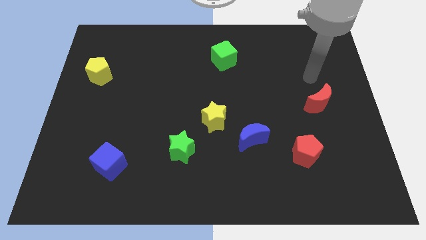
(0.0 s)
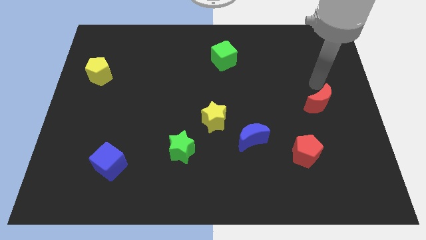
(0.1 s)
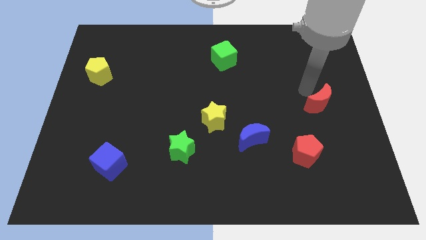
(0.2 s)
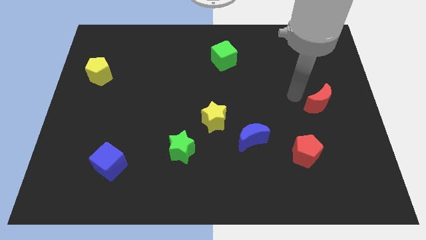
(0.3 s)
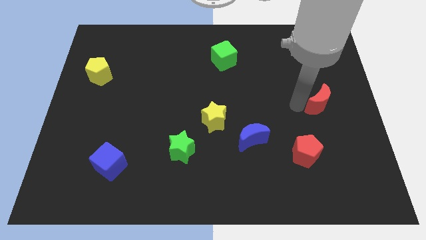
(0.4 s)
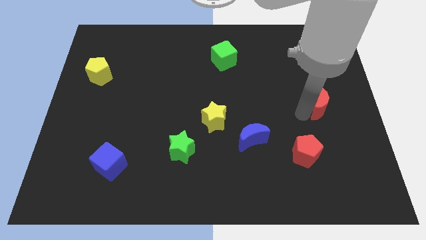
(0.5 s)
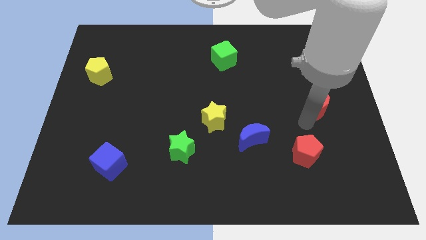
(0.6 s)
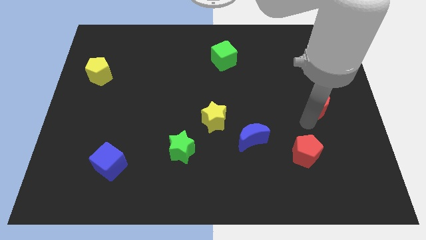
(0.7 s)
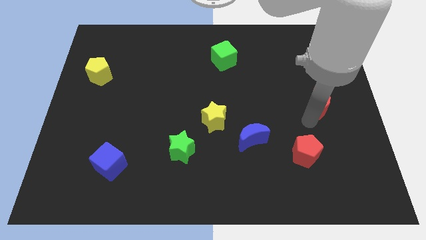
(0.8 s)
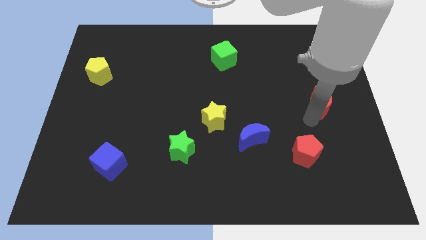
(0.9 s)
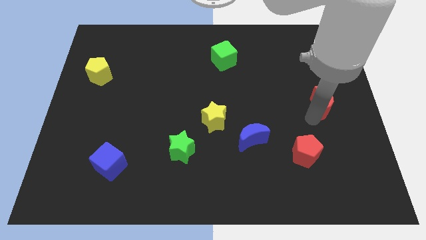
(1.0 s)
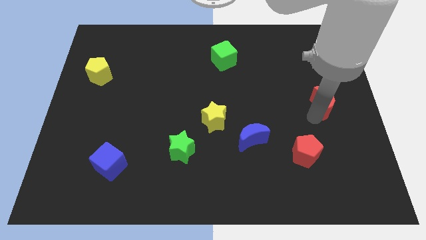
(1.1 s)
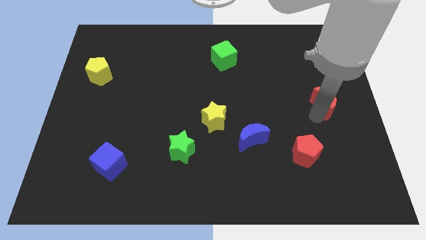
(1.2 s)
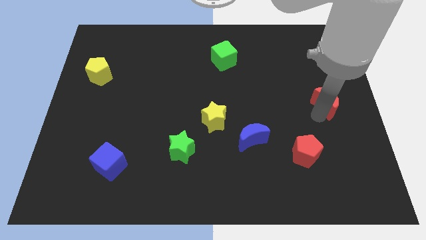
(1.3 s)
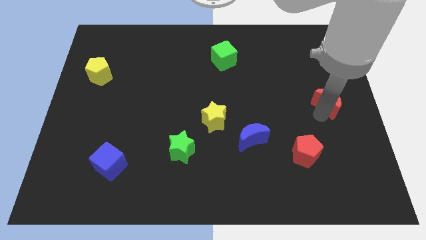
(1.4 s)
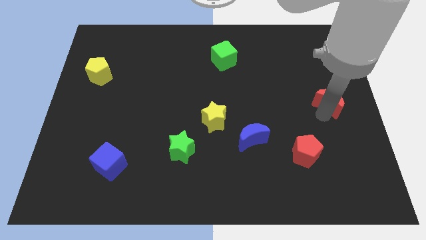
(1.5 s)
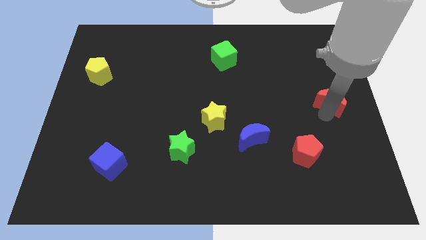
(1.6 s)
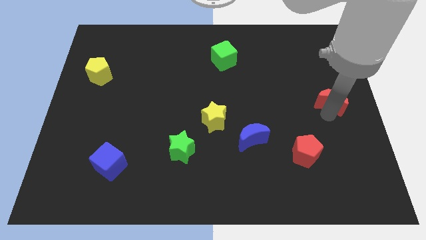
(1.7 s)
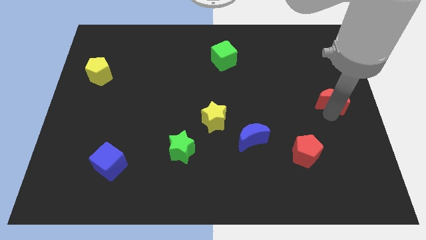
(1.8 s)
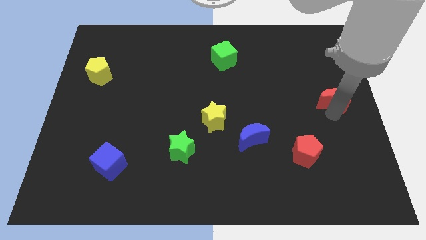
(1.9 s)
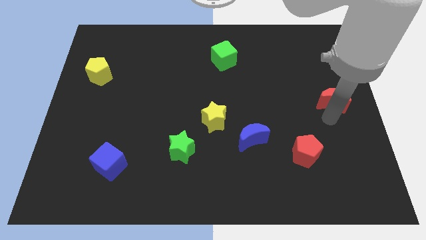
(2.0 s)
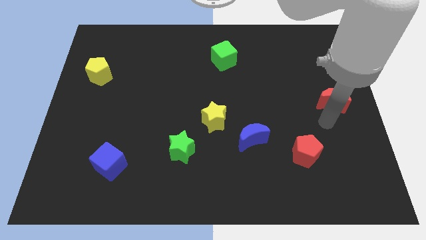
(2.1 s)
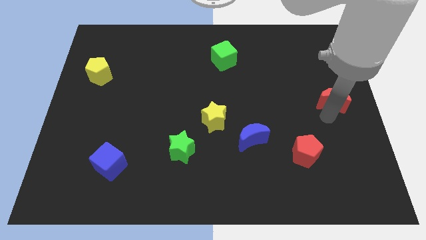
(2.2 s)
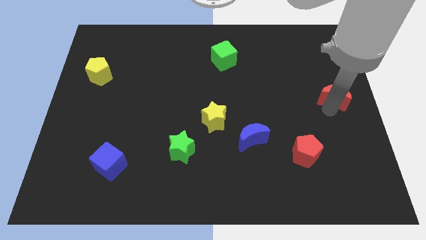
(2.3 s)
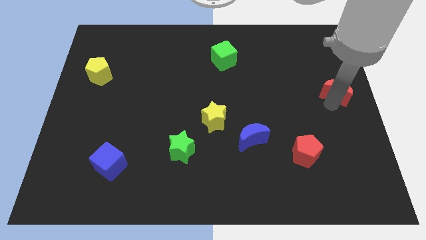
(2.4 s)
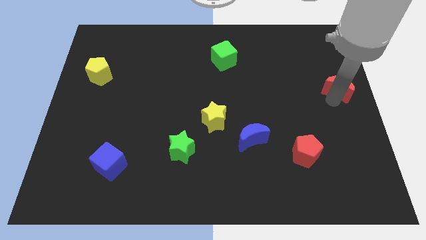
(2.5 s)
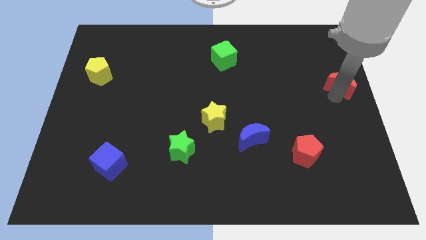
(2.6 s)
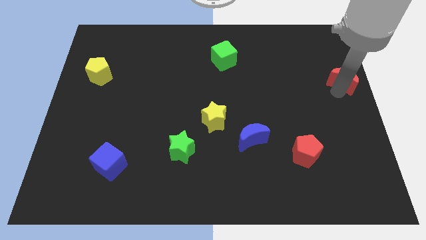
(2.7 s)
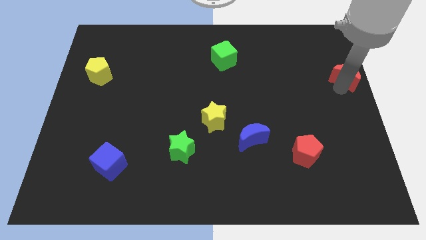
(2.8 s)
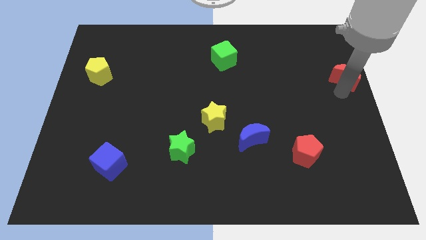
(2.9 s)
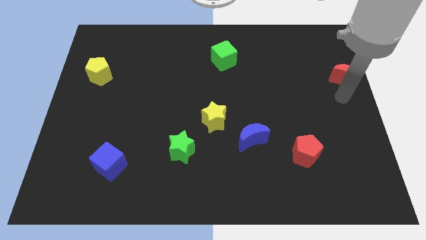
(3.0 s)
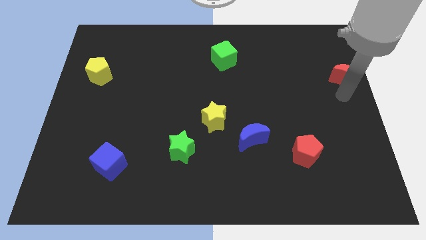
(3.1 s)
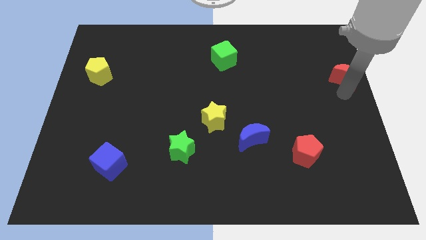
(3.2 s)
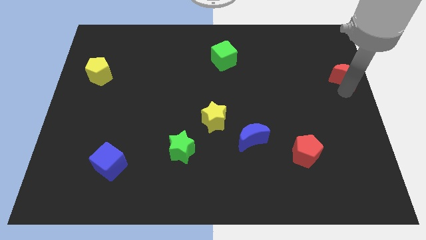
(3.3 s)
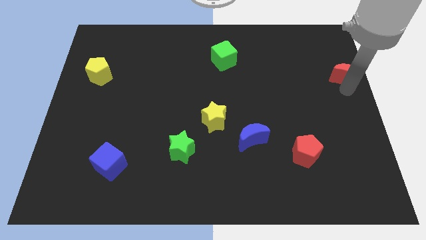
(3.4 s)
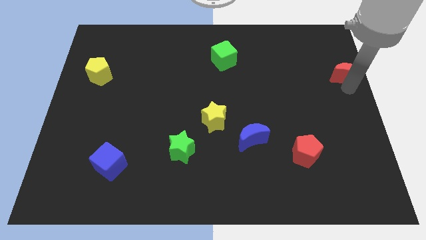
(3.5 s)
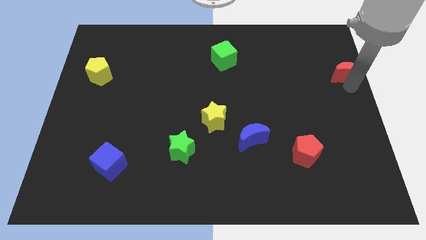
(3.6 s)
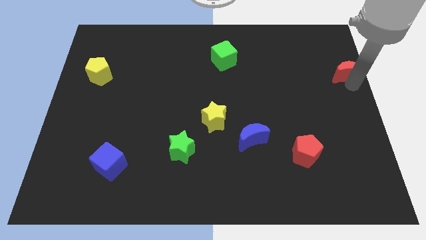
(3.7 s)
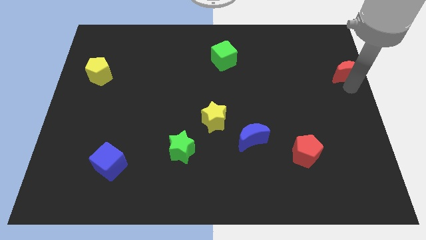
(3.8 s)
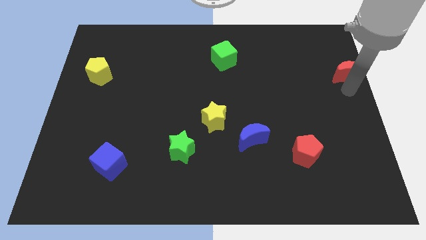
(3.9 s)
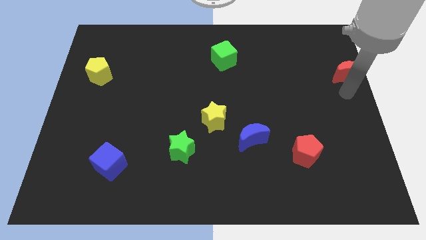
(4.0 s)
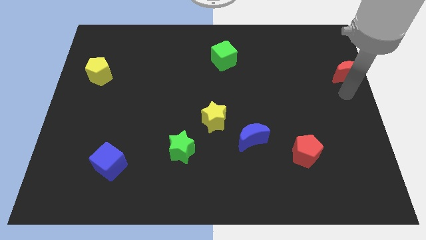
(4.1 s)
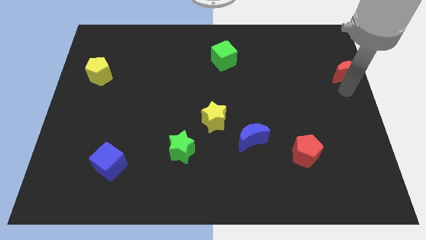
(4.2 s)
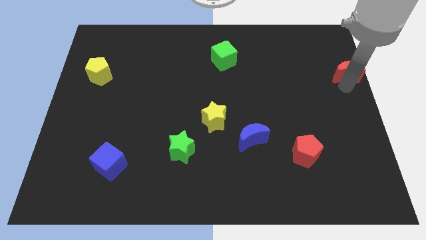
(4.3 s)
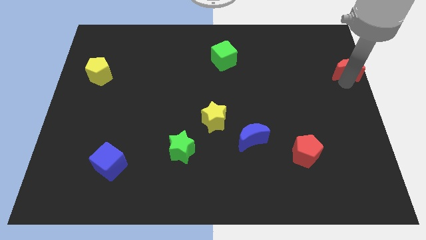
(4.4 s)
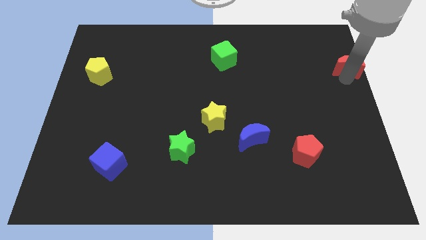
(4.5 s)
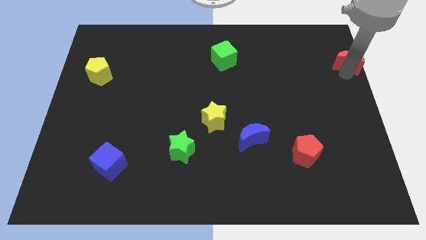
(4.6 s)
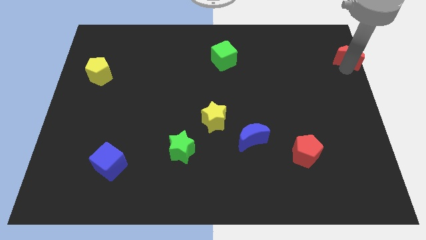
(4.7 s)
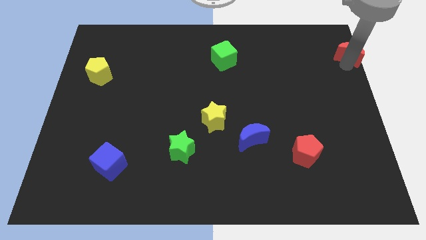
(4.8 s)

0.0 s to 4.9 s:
put the red moon to the top right corner

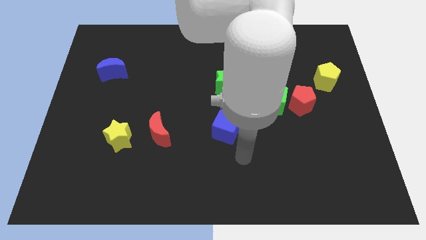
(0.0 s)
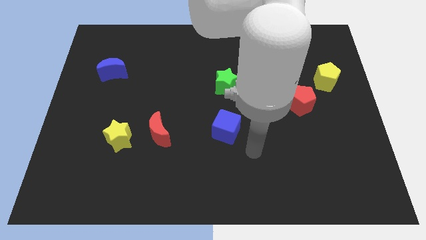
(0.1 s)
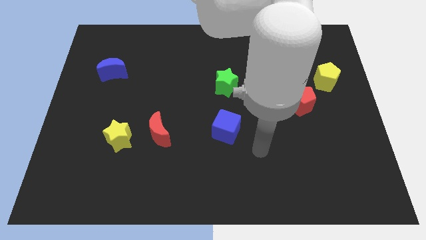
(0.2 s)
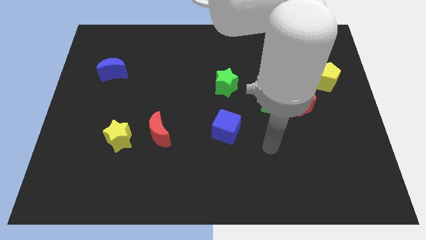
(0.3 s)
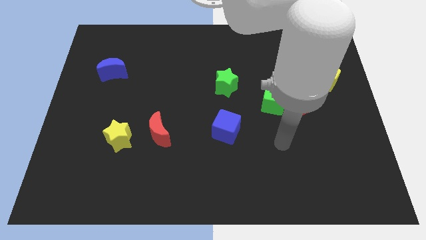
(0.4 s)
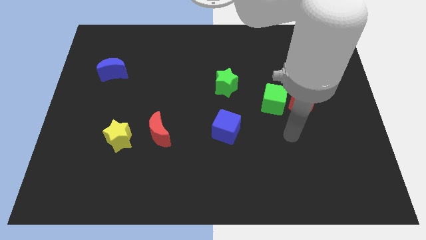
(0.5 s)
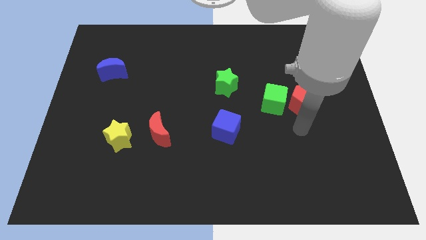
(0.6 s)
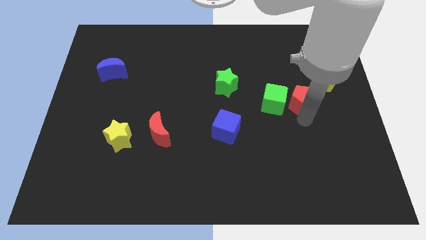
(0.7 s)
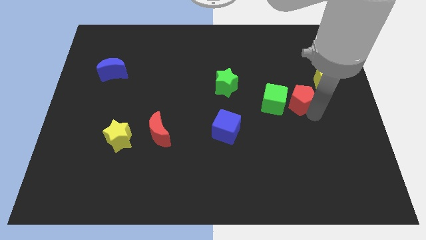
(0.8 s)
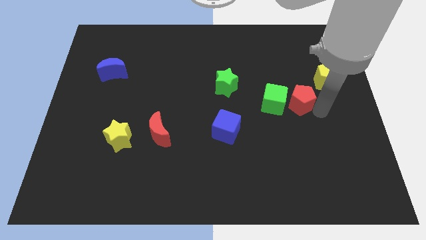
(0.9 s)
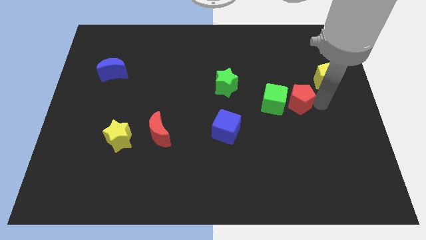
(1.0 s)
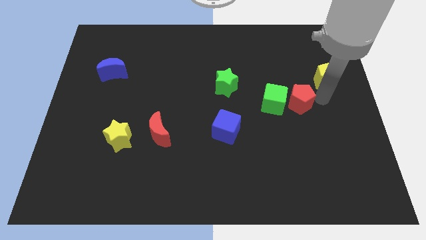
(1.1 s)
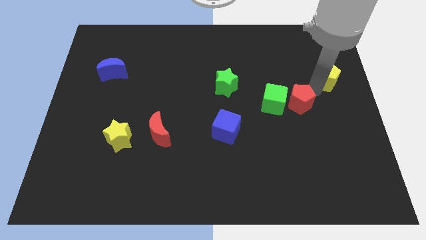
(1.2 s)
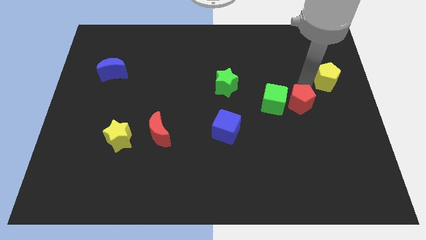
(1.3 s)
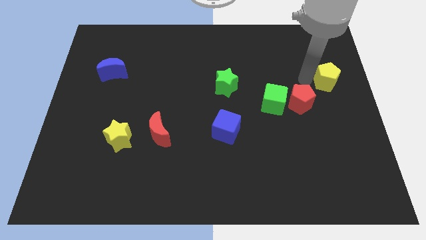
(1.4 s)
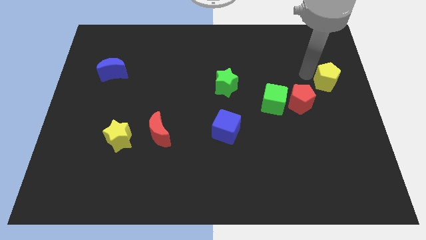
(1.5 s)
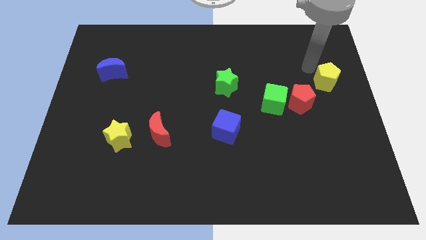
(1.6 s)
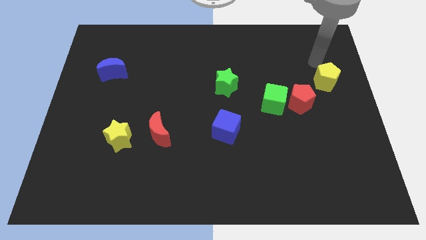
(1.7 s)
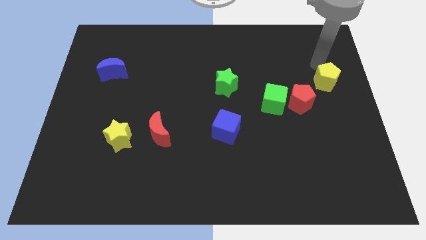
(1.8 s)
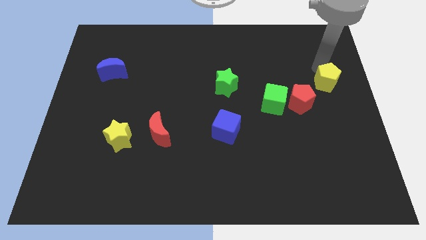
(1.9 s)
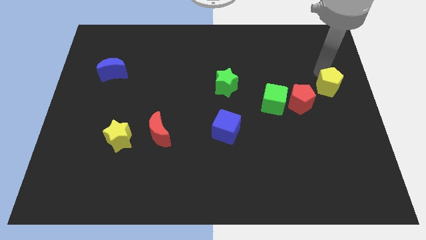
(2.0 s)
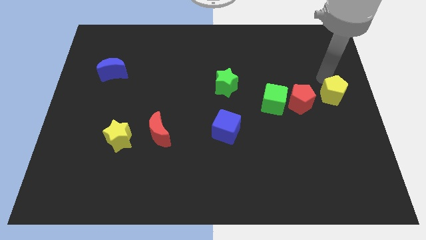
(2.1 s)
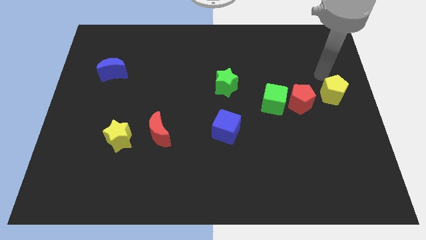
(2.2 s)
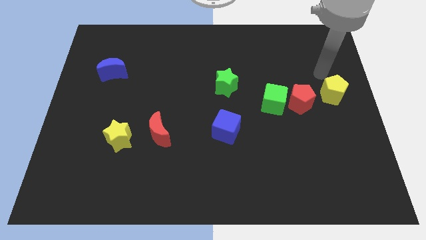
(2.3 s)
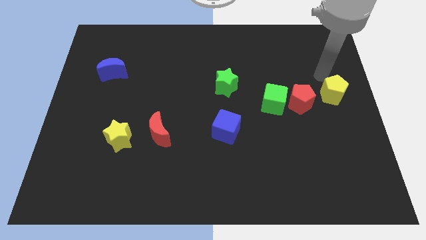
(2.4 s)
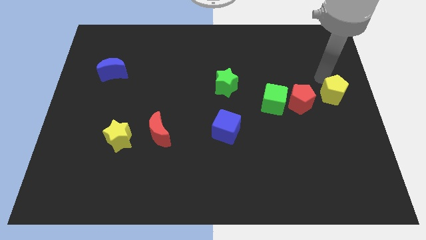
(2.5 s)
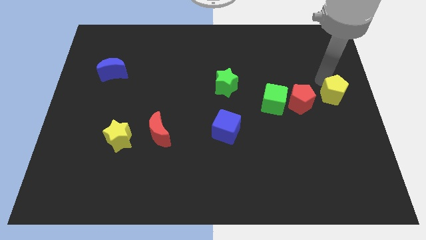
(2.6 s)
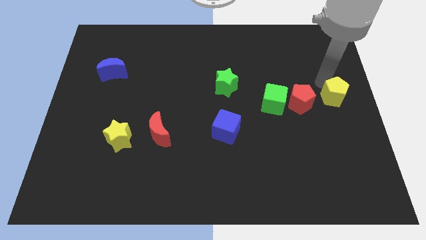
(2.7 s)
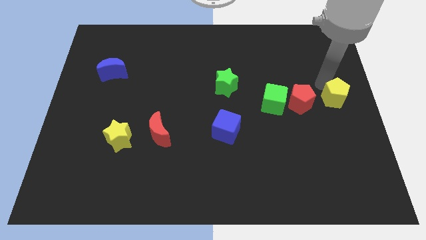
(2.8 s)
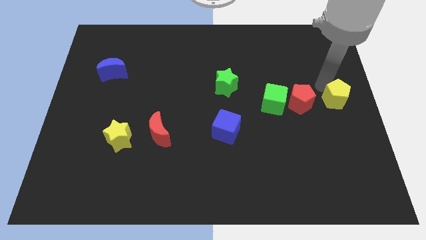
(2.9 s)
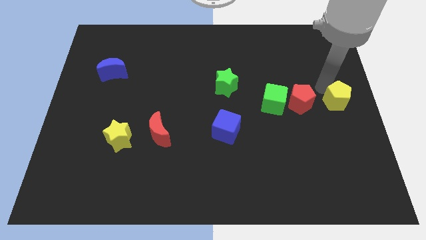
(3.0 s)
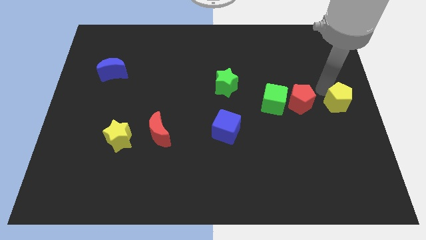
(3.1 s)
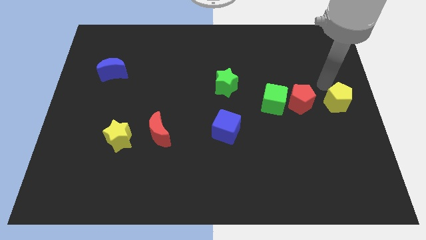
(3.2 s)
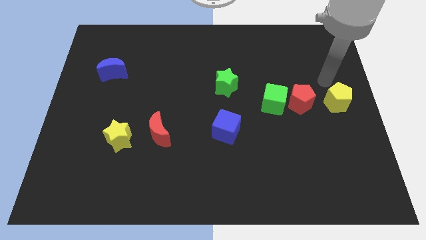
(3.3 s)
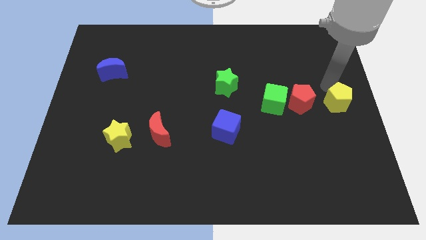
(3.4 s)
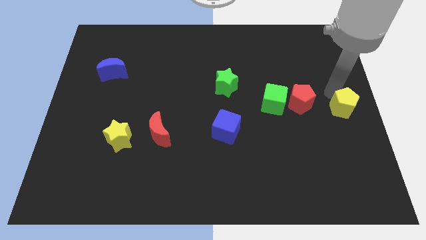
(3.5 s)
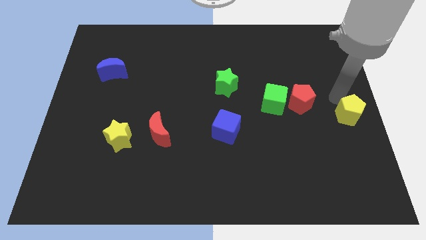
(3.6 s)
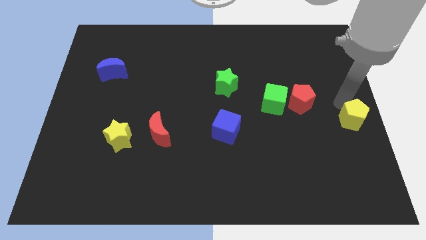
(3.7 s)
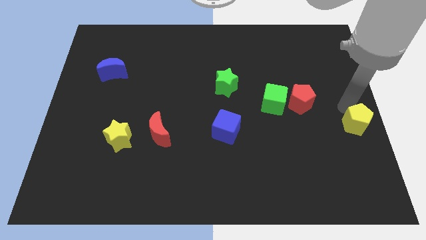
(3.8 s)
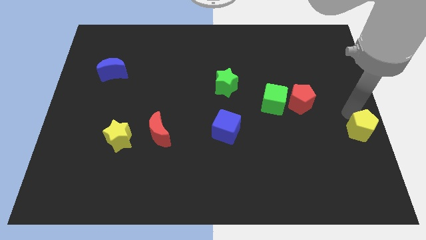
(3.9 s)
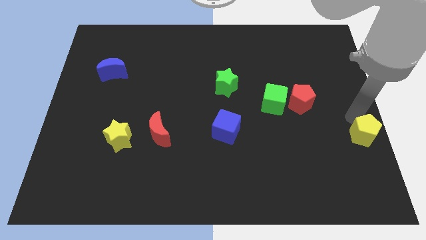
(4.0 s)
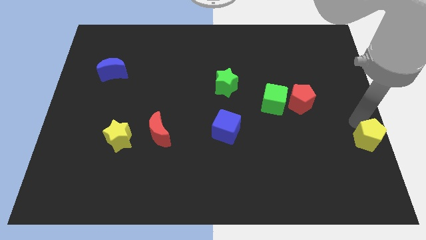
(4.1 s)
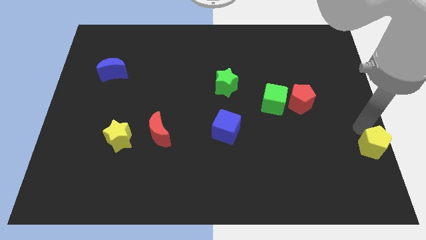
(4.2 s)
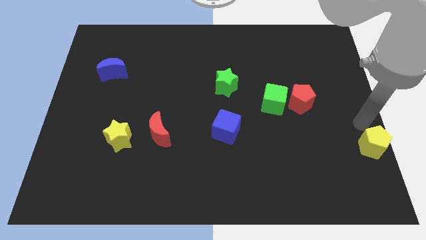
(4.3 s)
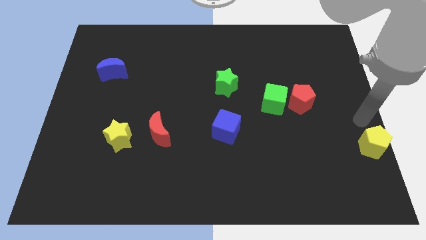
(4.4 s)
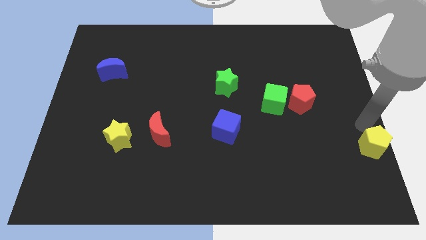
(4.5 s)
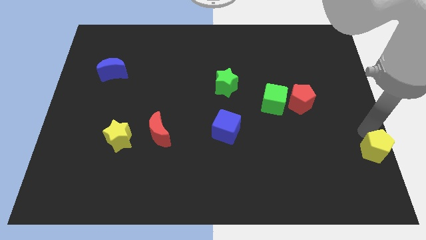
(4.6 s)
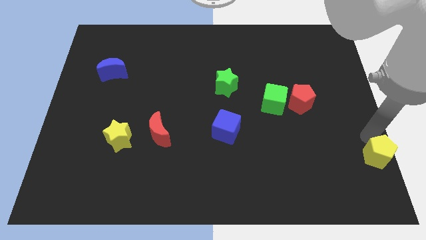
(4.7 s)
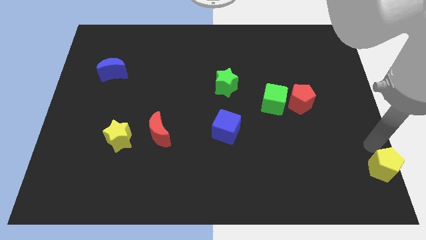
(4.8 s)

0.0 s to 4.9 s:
move the yellow pentagon to the bottom right corner
